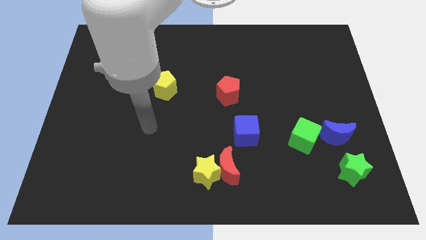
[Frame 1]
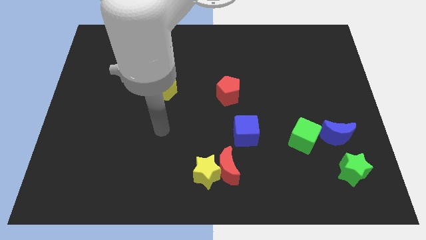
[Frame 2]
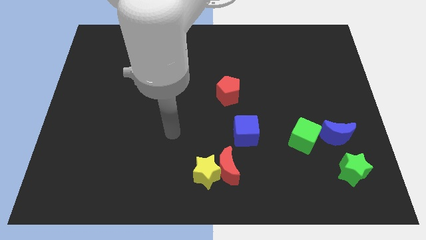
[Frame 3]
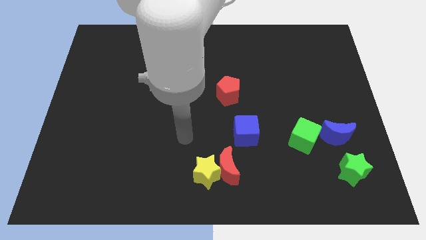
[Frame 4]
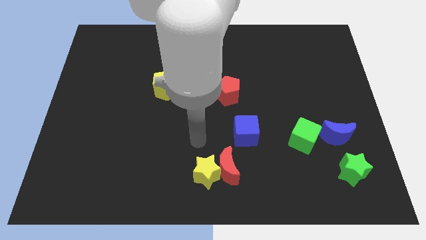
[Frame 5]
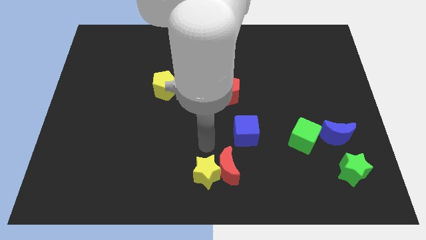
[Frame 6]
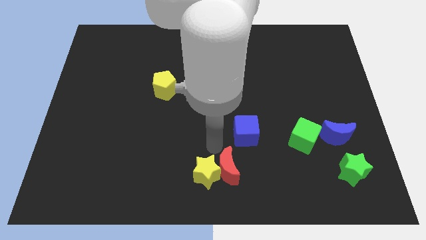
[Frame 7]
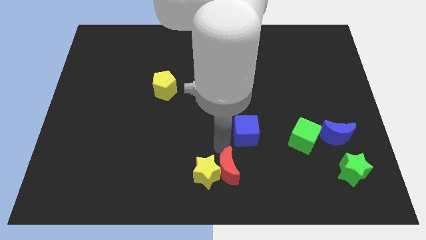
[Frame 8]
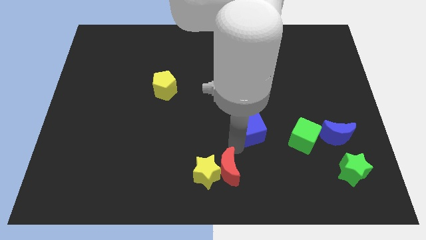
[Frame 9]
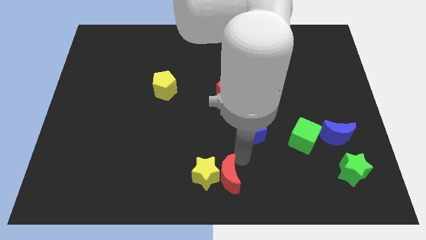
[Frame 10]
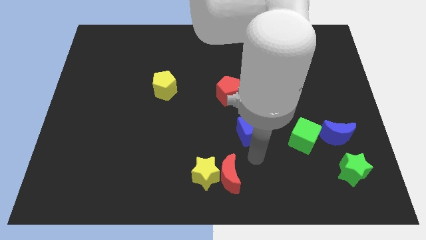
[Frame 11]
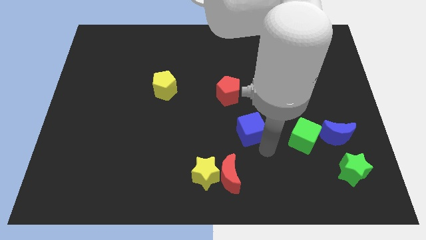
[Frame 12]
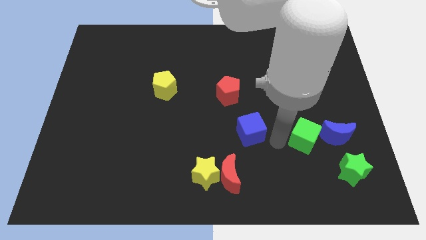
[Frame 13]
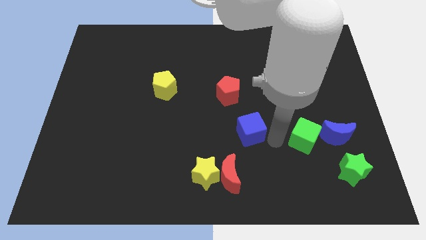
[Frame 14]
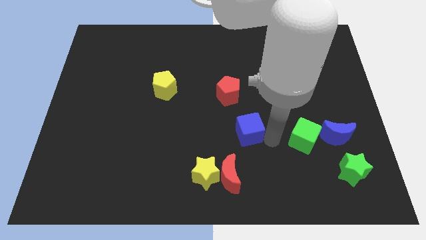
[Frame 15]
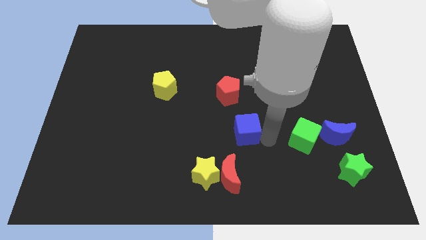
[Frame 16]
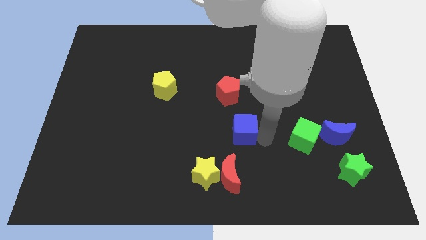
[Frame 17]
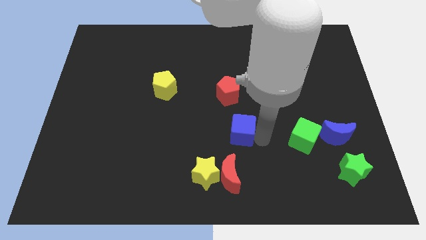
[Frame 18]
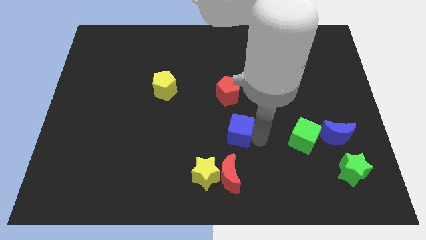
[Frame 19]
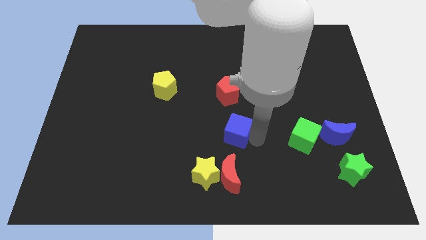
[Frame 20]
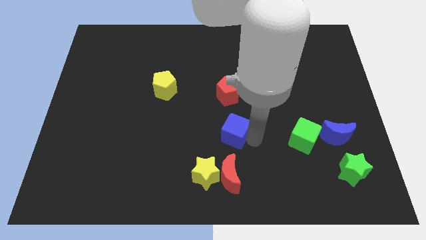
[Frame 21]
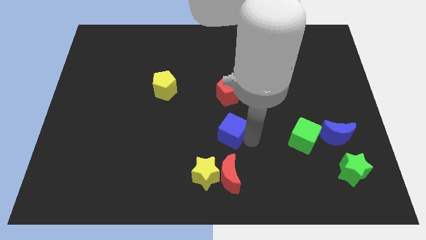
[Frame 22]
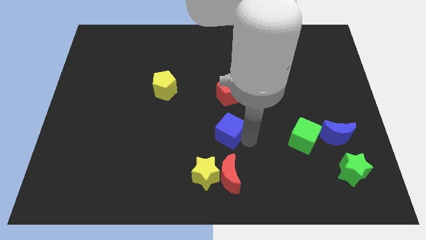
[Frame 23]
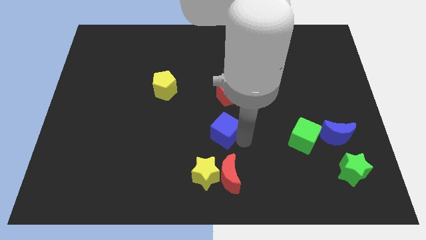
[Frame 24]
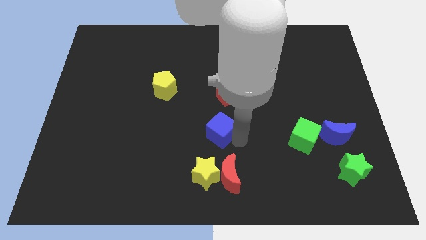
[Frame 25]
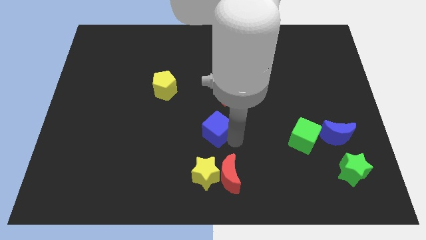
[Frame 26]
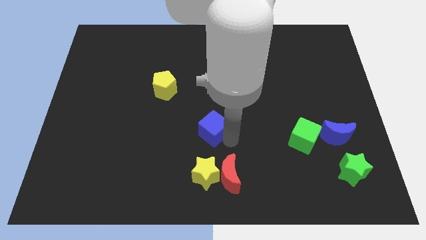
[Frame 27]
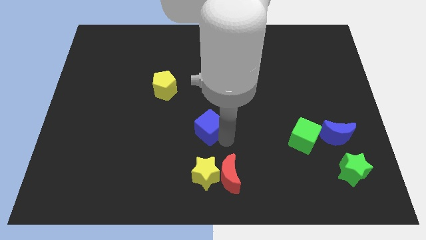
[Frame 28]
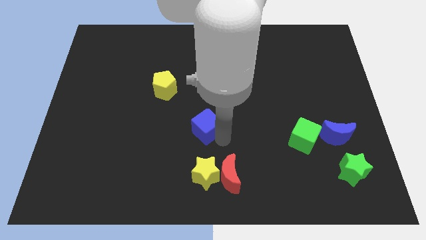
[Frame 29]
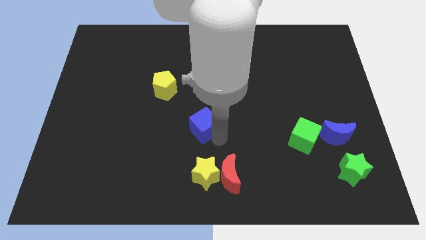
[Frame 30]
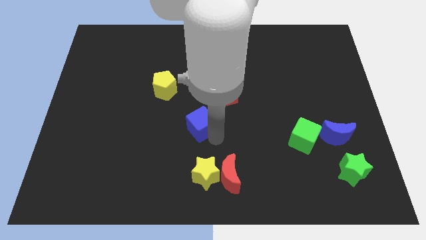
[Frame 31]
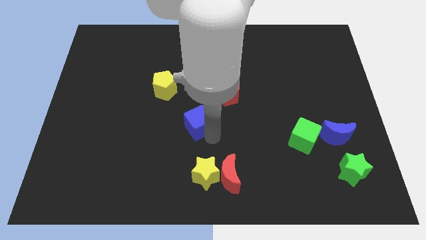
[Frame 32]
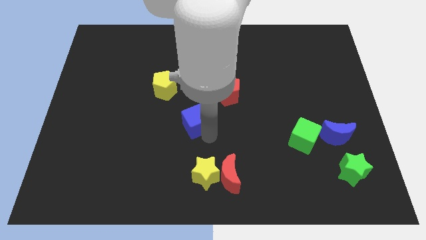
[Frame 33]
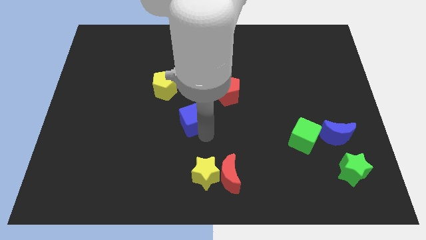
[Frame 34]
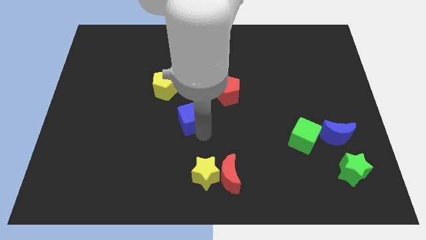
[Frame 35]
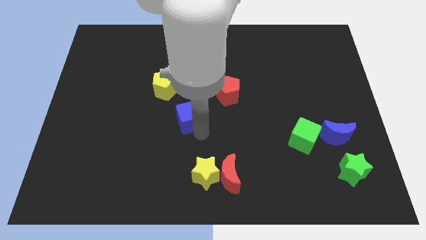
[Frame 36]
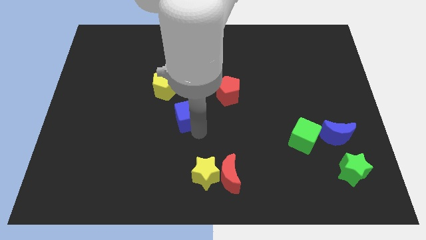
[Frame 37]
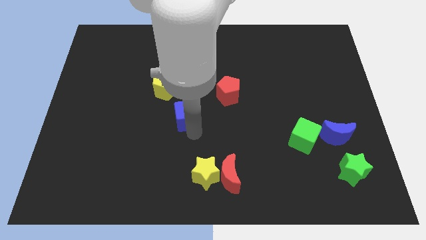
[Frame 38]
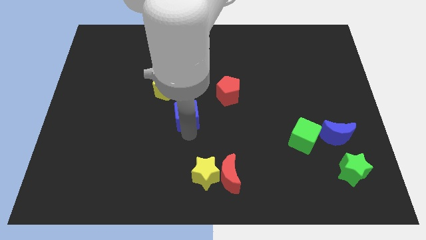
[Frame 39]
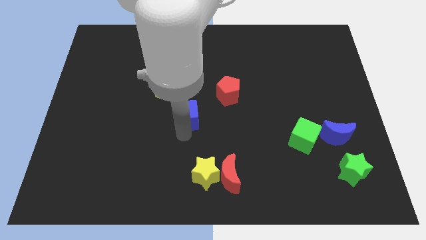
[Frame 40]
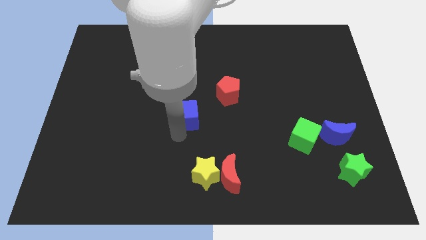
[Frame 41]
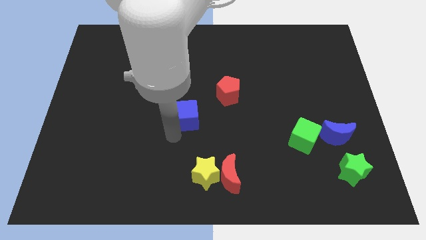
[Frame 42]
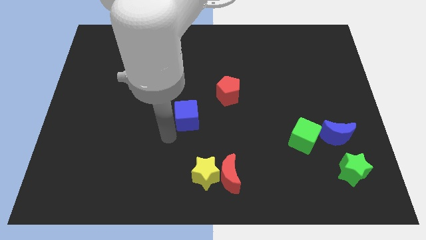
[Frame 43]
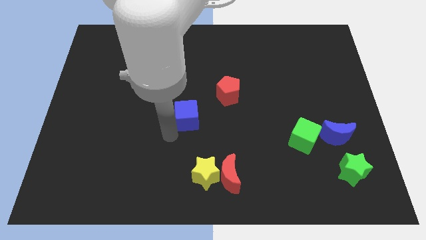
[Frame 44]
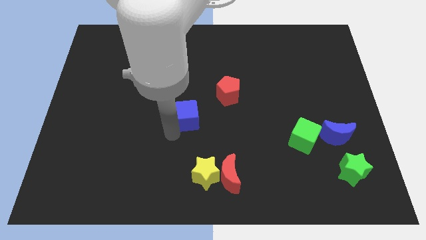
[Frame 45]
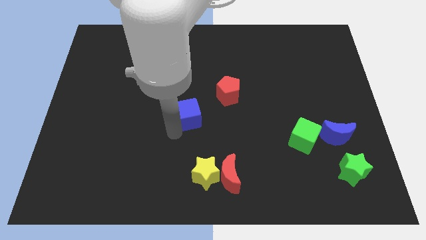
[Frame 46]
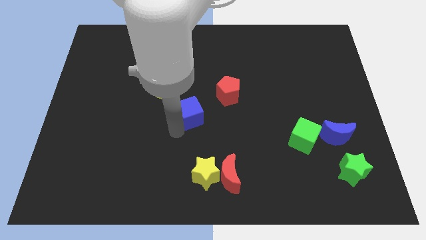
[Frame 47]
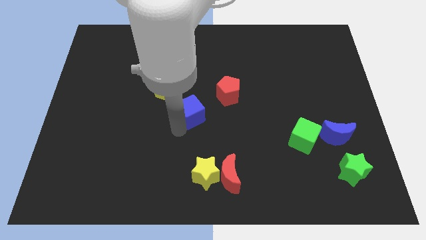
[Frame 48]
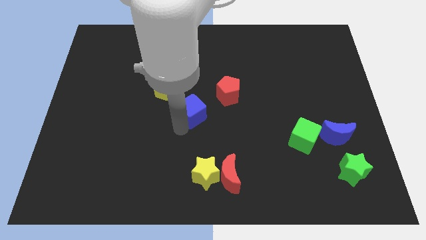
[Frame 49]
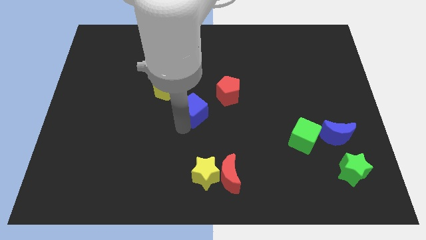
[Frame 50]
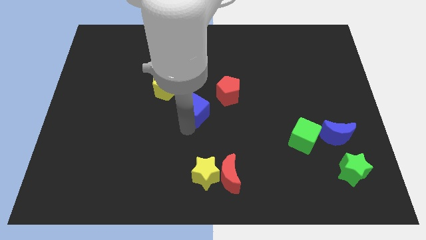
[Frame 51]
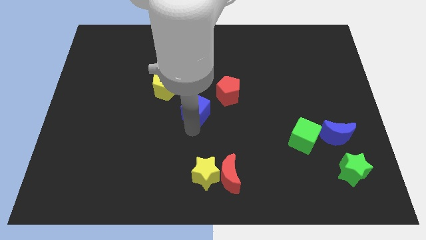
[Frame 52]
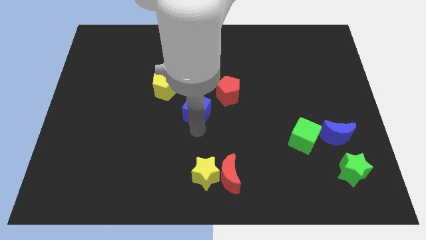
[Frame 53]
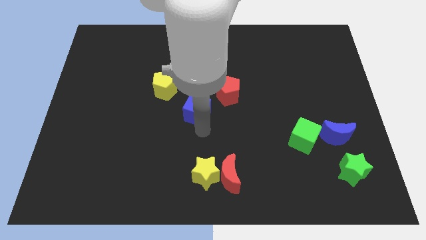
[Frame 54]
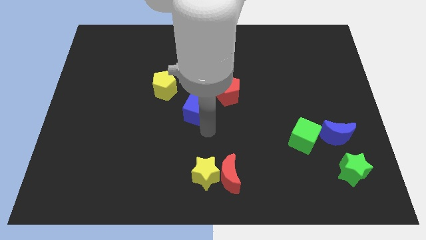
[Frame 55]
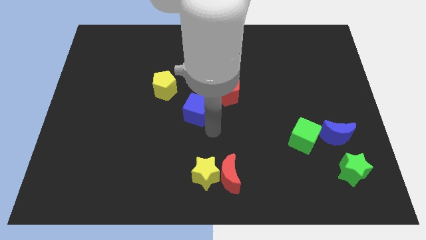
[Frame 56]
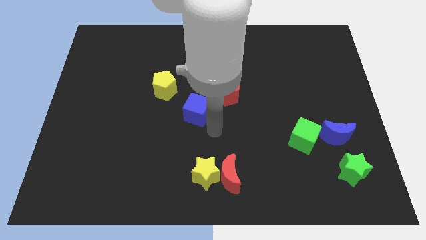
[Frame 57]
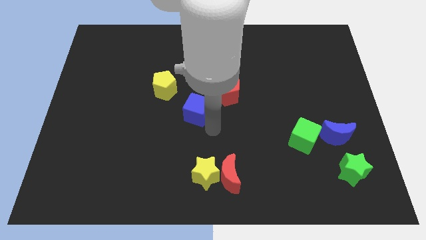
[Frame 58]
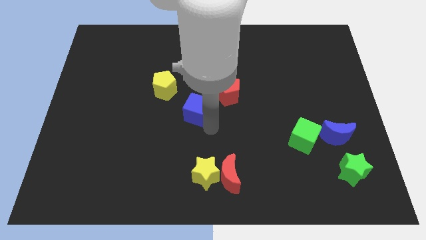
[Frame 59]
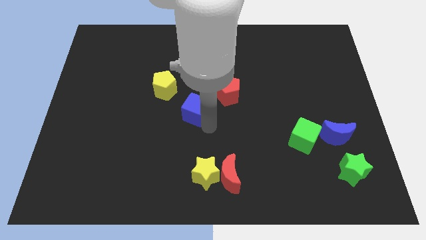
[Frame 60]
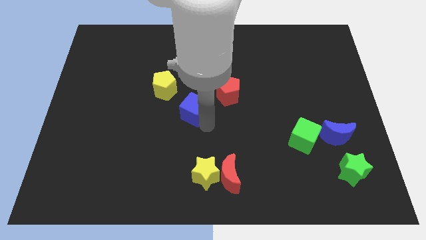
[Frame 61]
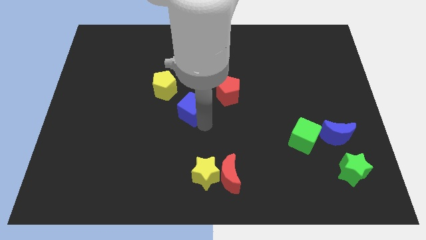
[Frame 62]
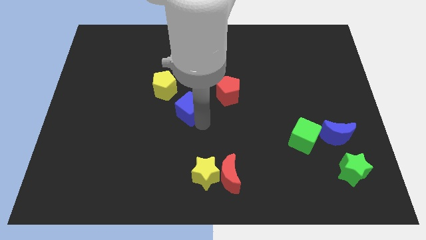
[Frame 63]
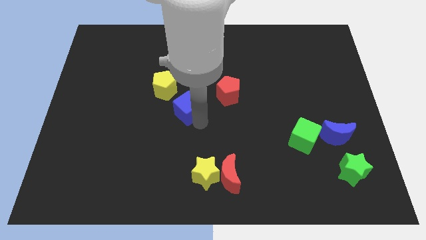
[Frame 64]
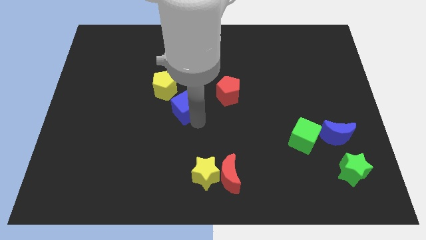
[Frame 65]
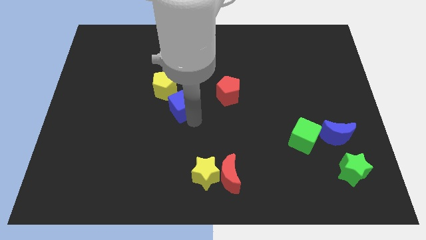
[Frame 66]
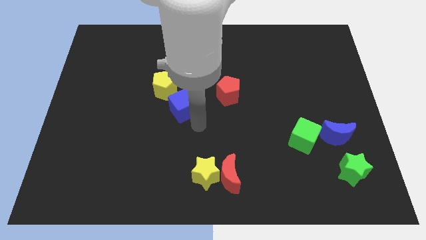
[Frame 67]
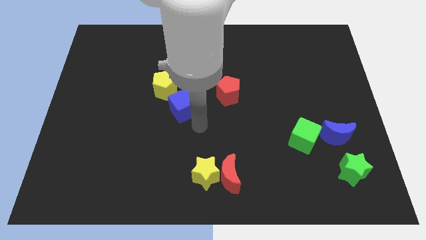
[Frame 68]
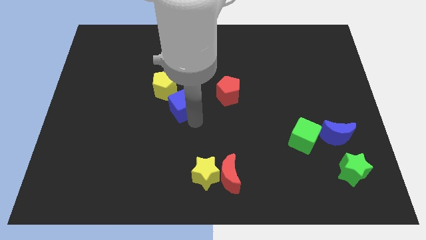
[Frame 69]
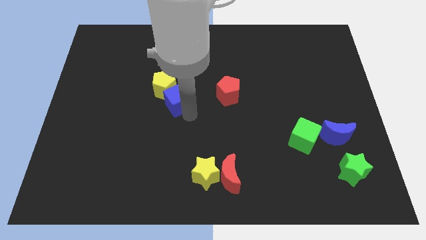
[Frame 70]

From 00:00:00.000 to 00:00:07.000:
slide the blue cube next to the yellow pentagon

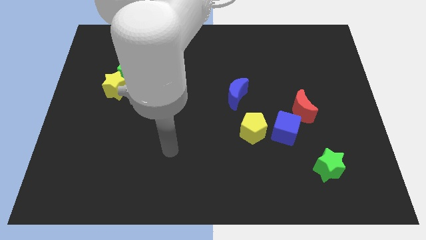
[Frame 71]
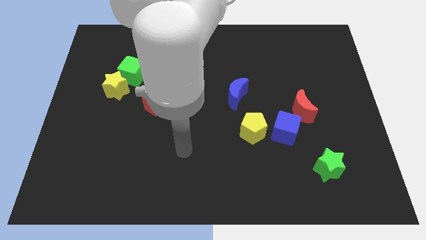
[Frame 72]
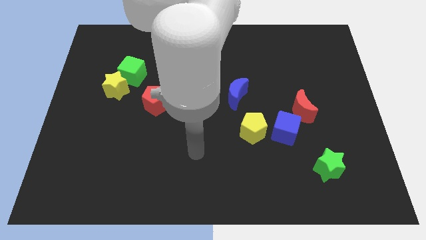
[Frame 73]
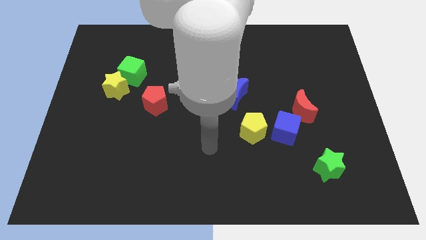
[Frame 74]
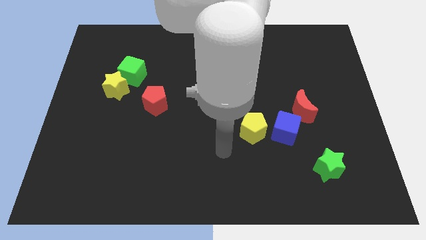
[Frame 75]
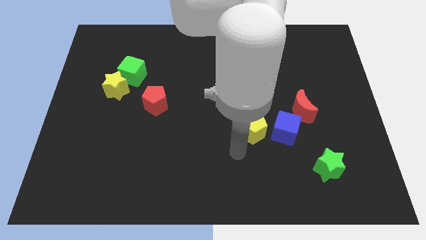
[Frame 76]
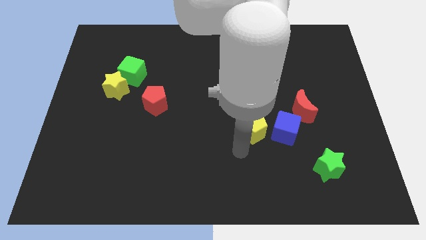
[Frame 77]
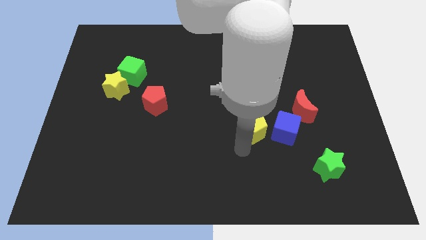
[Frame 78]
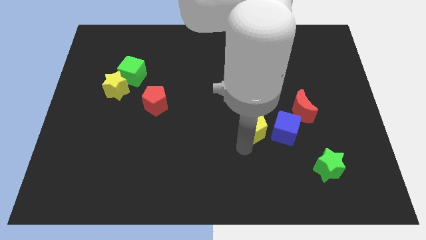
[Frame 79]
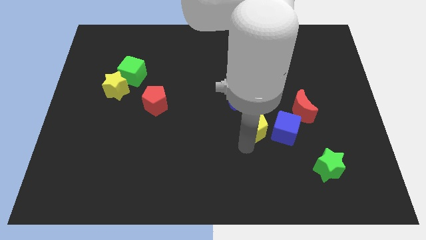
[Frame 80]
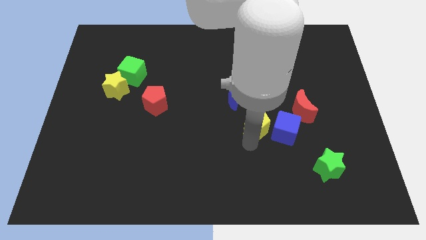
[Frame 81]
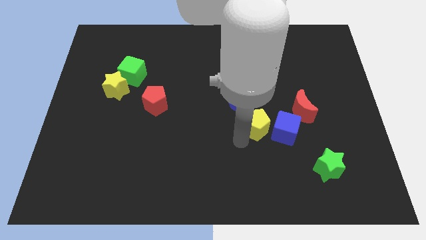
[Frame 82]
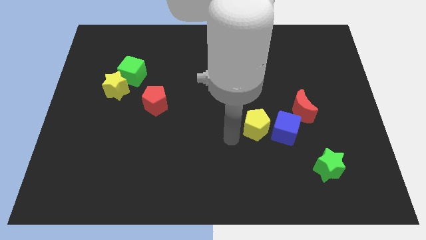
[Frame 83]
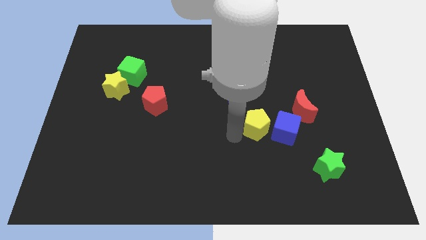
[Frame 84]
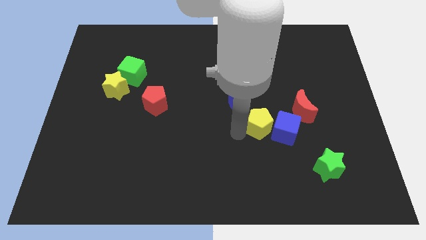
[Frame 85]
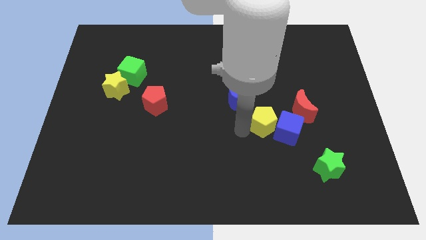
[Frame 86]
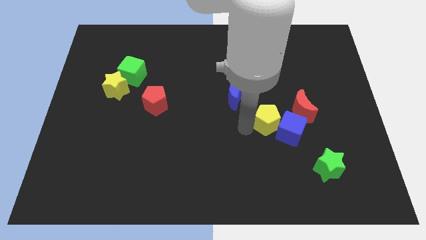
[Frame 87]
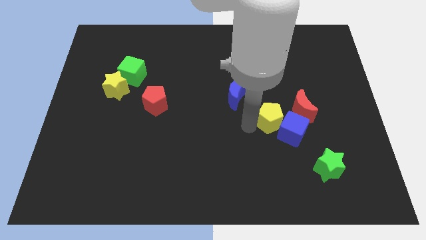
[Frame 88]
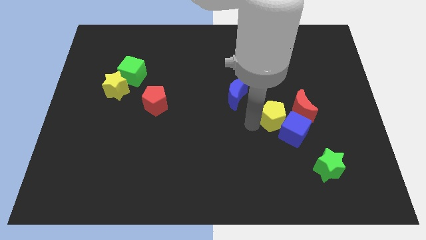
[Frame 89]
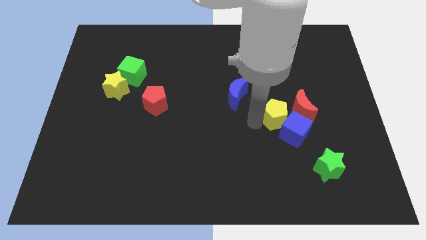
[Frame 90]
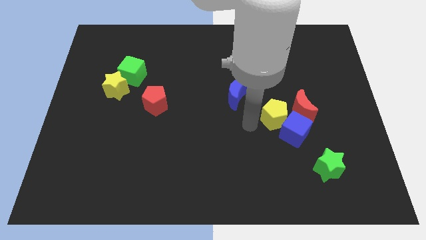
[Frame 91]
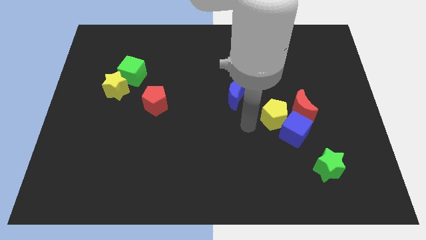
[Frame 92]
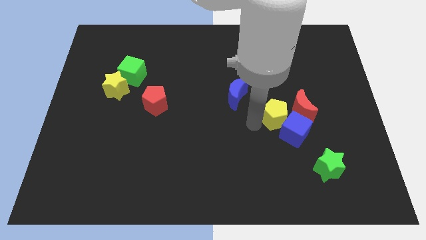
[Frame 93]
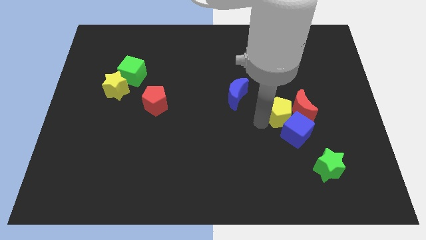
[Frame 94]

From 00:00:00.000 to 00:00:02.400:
put the yellow pentagon towards the red moon
